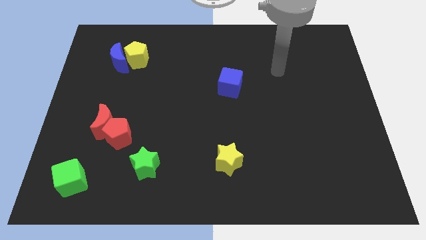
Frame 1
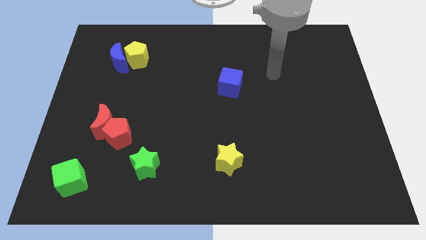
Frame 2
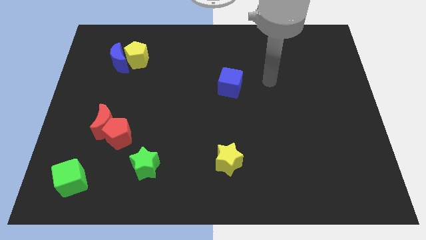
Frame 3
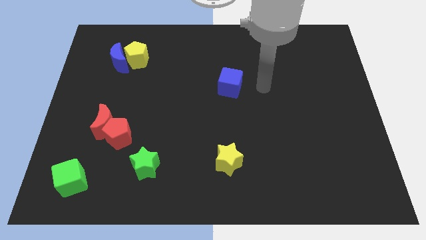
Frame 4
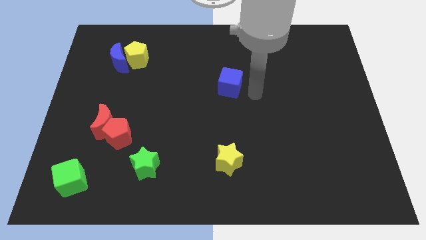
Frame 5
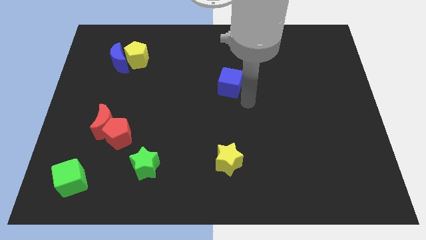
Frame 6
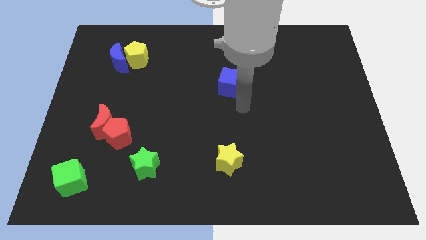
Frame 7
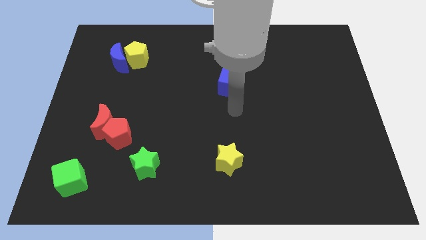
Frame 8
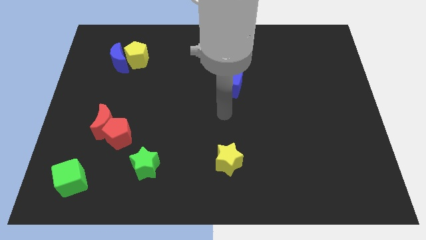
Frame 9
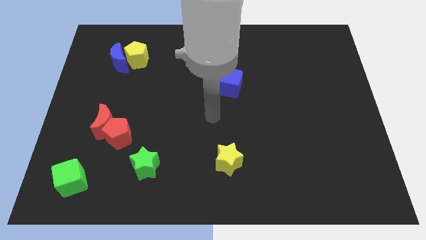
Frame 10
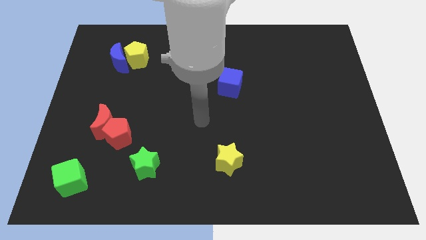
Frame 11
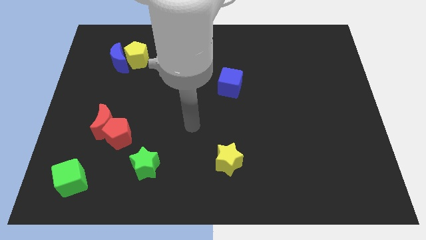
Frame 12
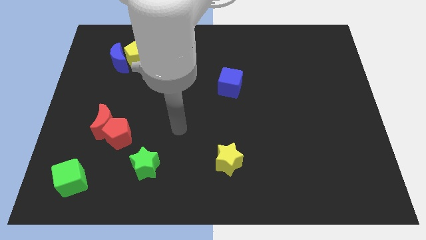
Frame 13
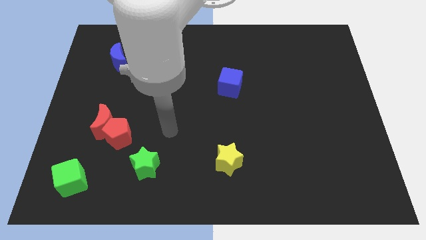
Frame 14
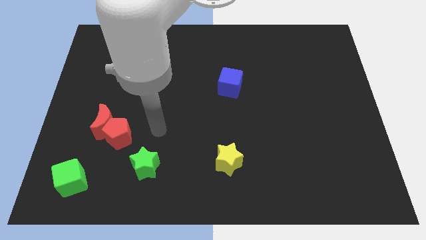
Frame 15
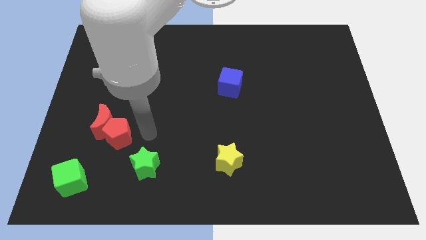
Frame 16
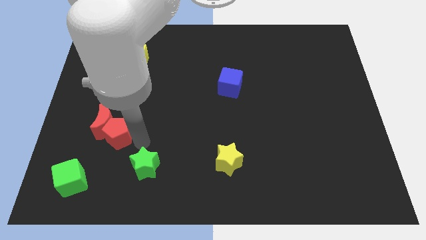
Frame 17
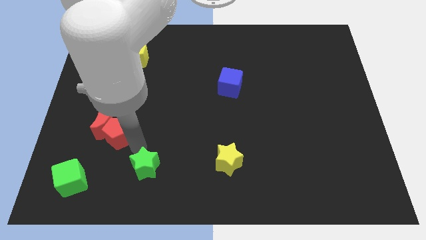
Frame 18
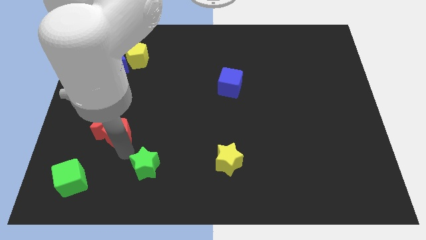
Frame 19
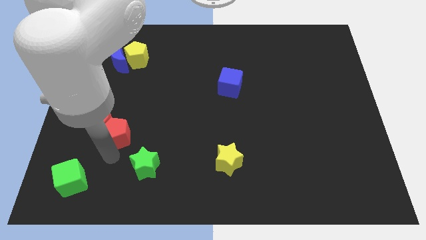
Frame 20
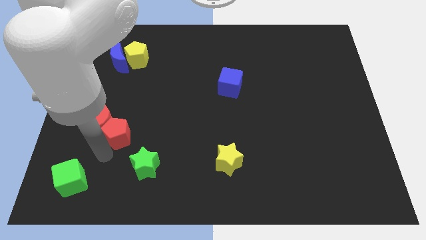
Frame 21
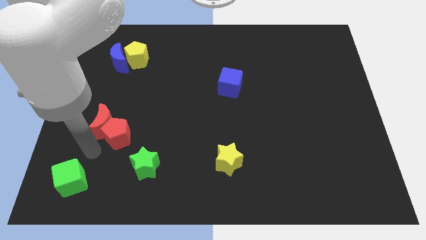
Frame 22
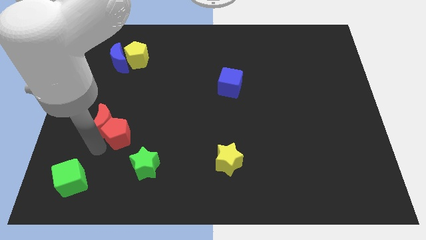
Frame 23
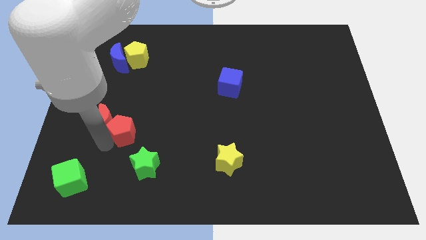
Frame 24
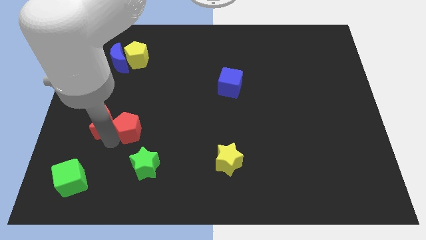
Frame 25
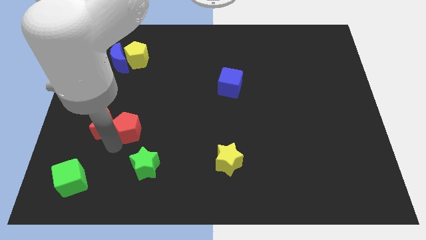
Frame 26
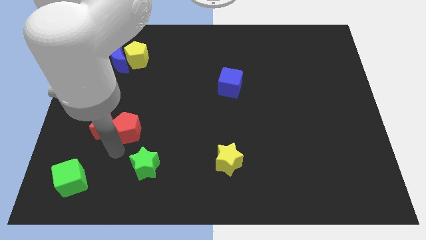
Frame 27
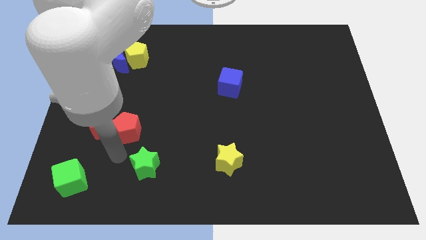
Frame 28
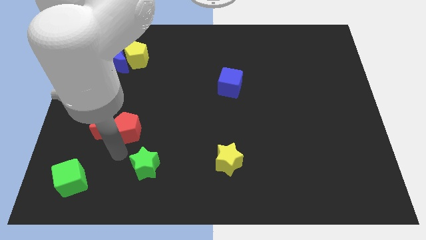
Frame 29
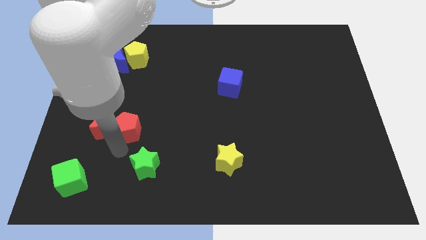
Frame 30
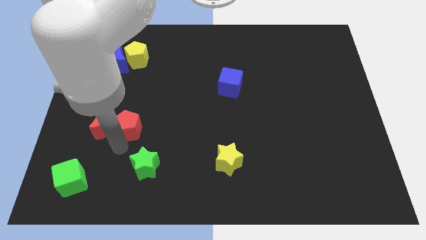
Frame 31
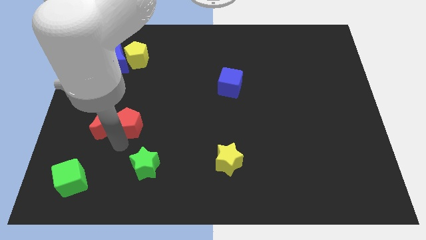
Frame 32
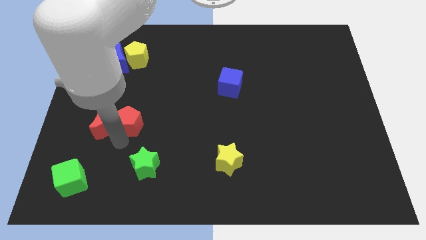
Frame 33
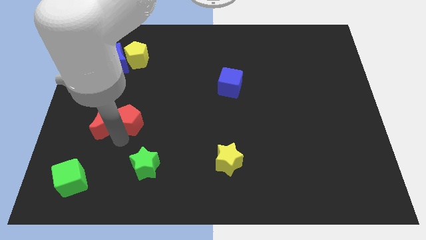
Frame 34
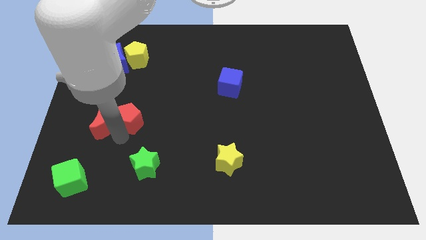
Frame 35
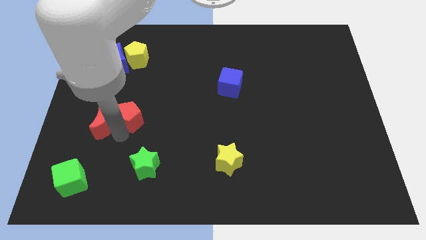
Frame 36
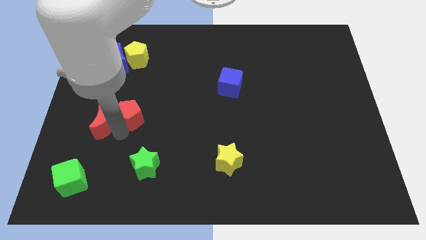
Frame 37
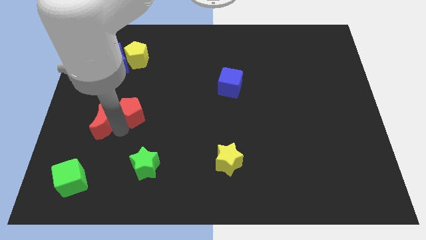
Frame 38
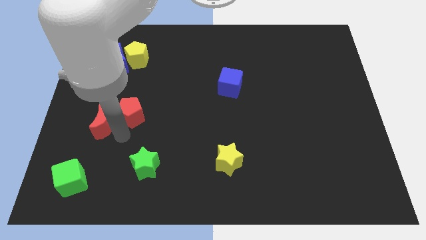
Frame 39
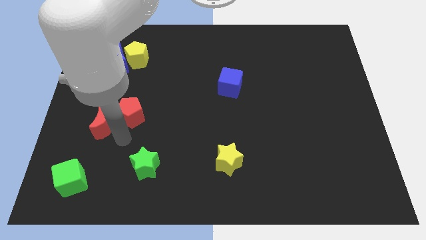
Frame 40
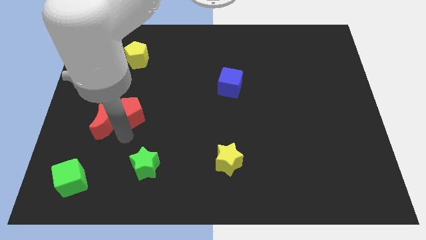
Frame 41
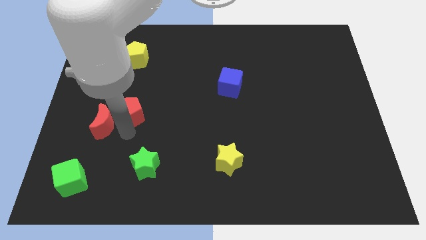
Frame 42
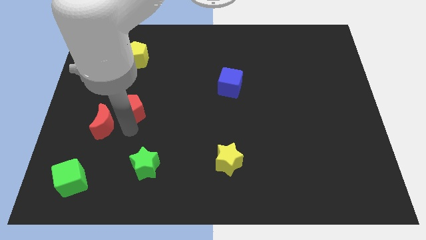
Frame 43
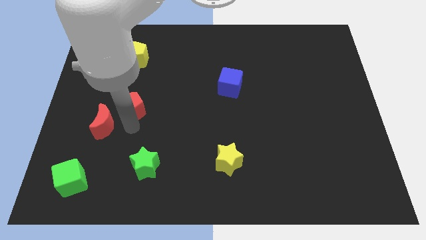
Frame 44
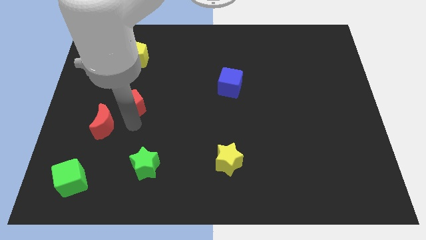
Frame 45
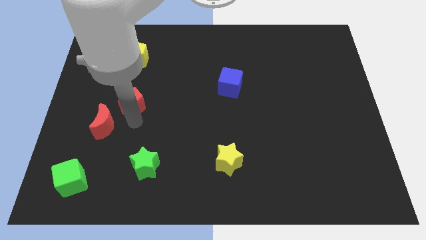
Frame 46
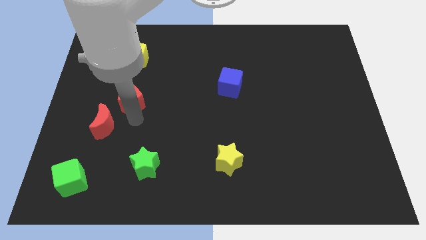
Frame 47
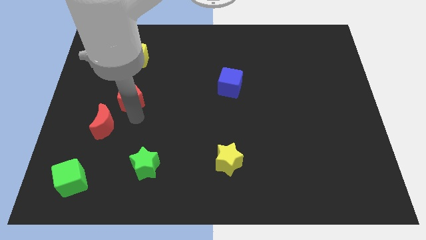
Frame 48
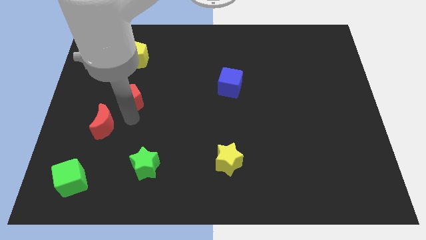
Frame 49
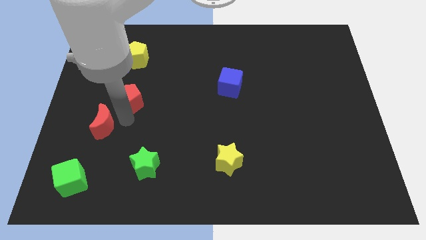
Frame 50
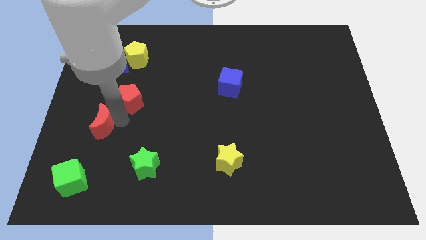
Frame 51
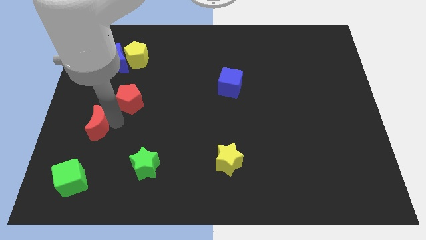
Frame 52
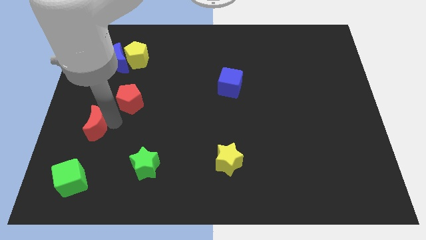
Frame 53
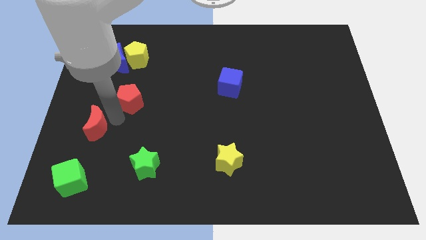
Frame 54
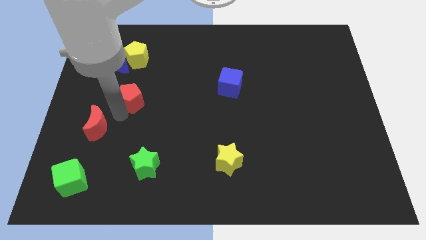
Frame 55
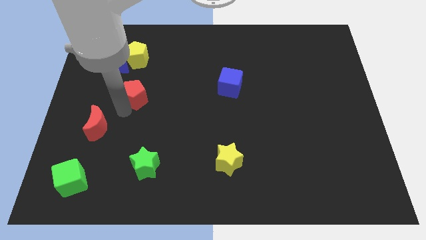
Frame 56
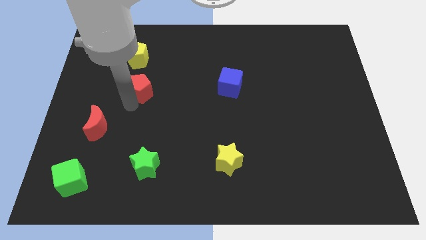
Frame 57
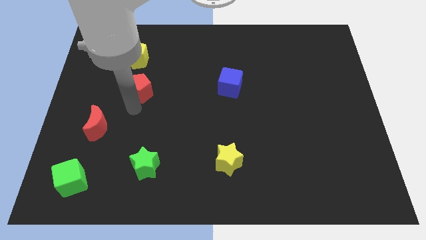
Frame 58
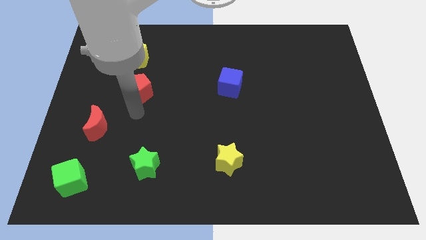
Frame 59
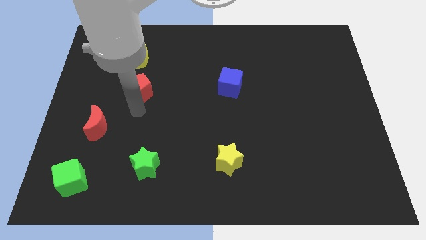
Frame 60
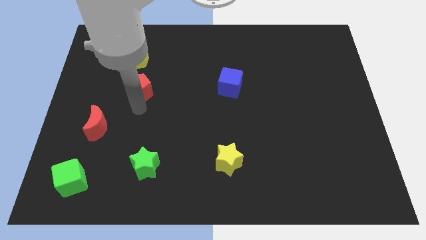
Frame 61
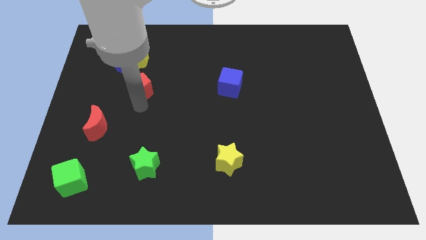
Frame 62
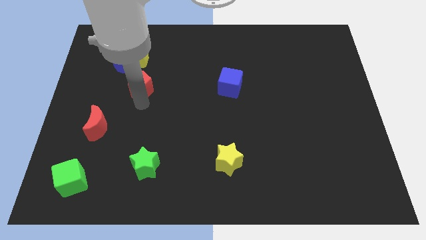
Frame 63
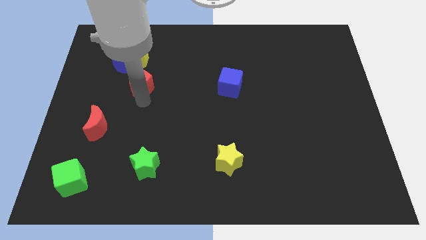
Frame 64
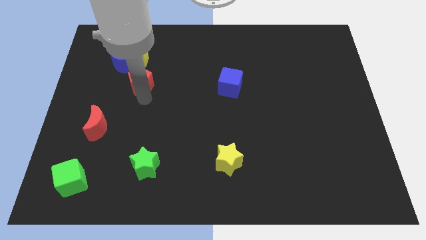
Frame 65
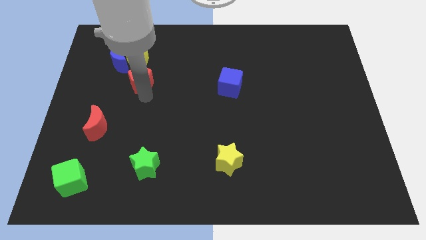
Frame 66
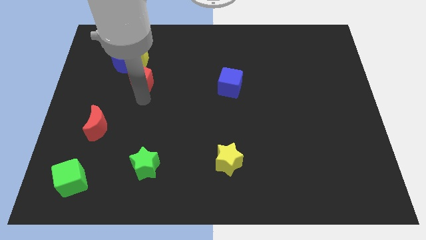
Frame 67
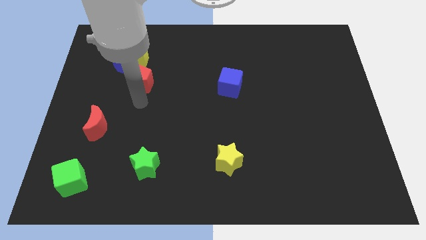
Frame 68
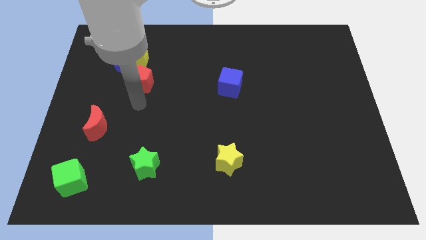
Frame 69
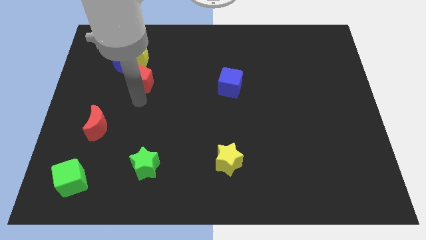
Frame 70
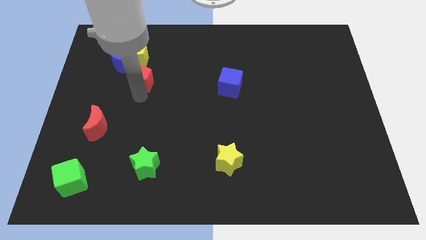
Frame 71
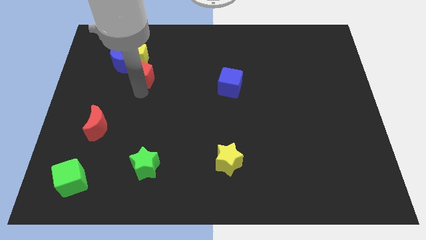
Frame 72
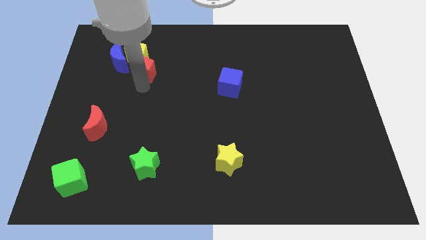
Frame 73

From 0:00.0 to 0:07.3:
move the red pentagon to the yellow pentagon

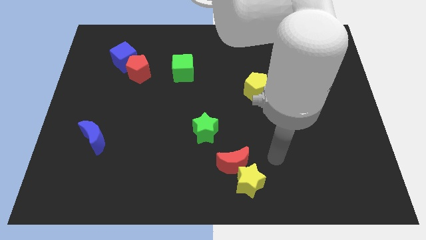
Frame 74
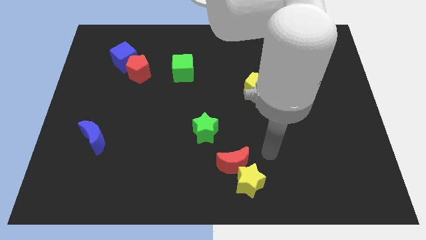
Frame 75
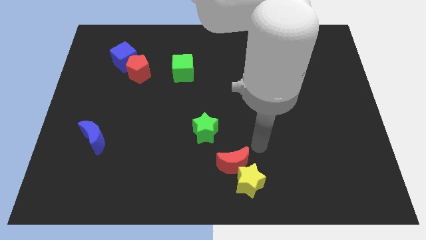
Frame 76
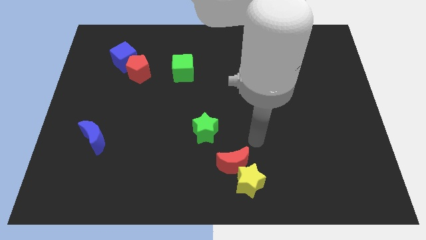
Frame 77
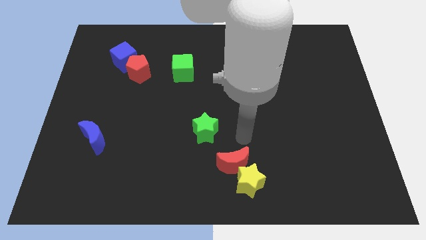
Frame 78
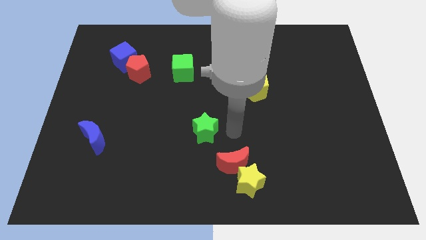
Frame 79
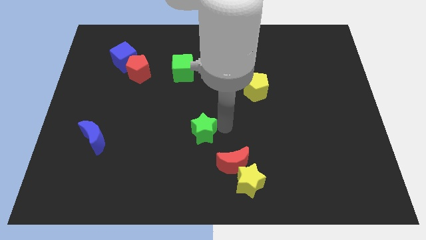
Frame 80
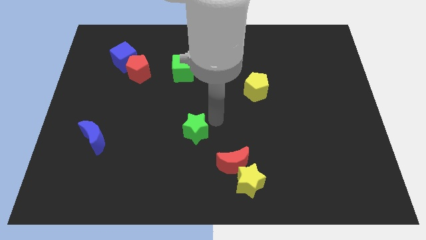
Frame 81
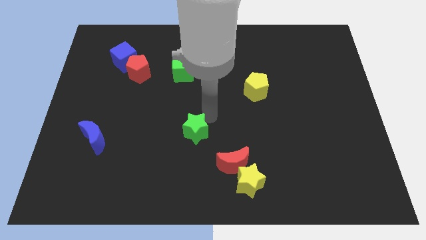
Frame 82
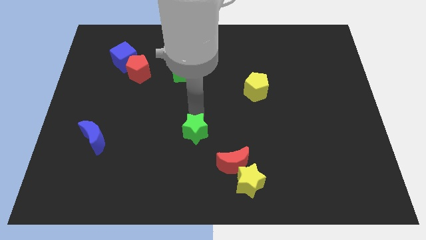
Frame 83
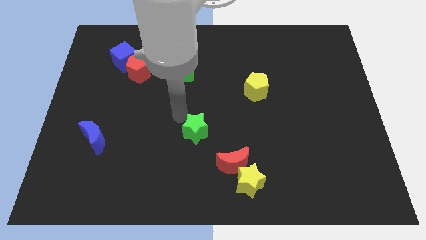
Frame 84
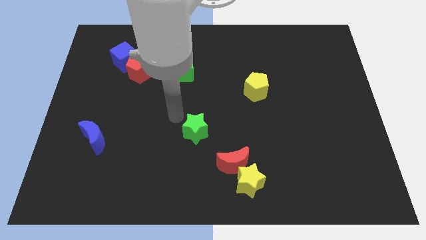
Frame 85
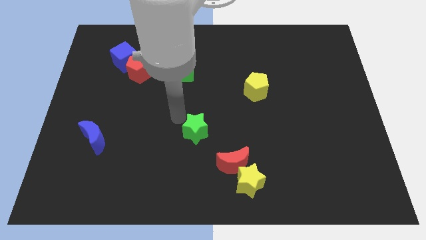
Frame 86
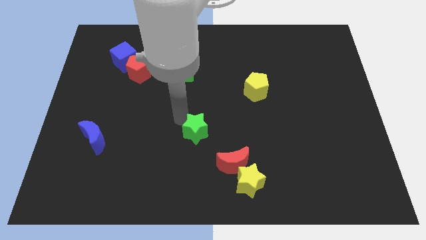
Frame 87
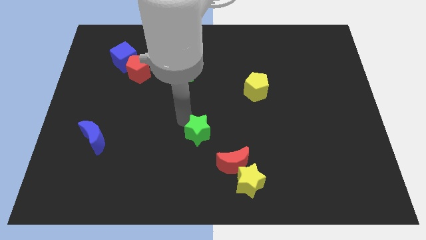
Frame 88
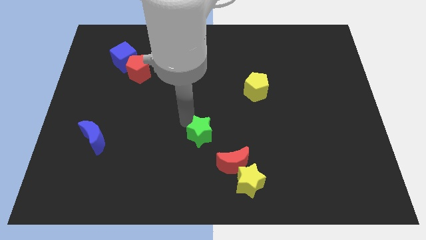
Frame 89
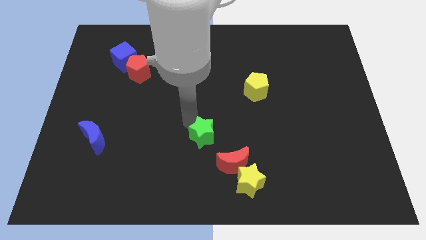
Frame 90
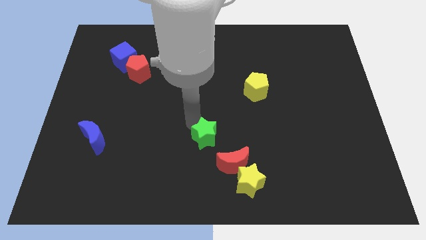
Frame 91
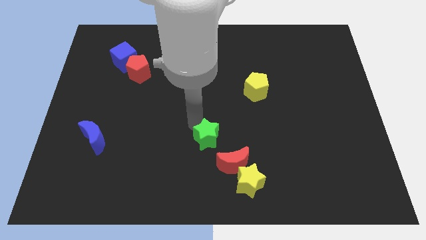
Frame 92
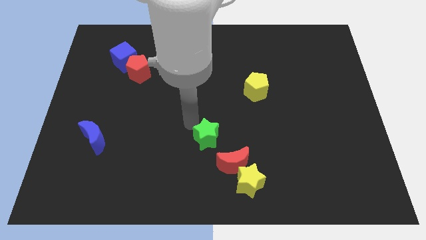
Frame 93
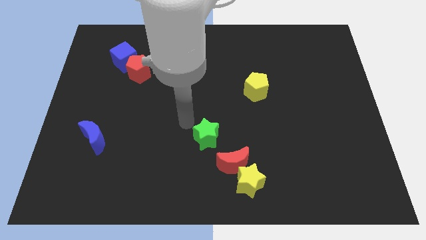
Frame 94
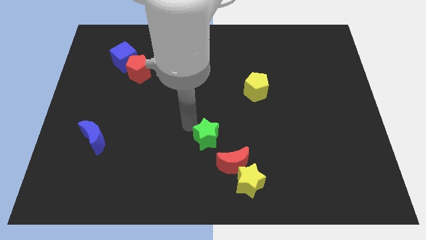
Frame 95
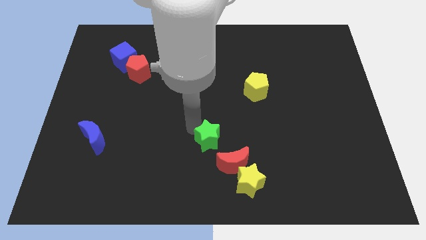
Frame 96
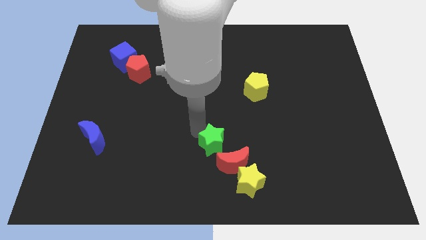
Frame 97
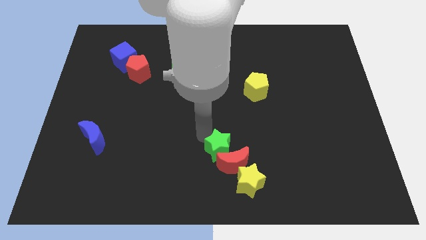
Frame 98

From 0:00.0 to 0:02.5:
move the green star close to the red moon
